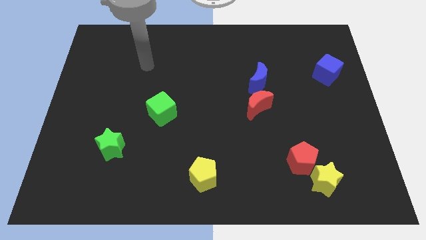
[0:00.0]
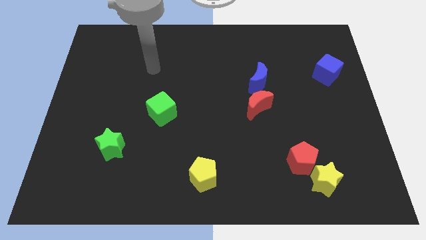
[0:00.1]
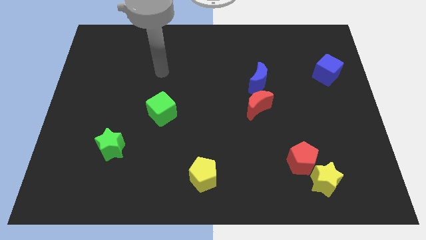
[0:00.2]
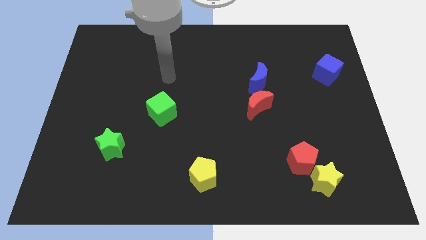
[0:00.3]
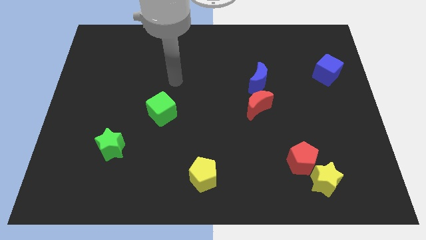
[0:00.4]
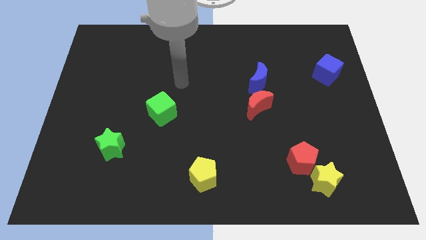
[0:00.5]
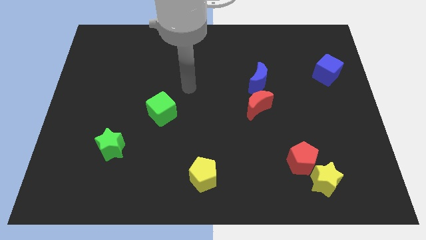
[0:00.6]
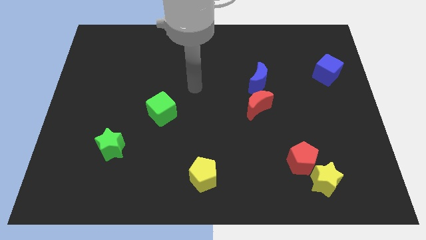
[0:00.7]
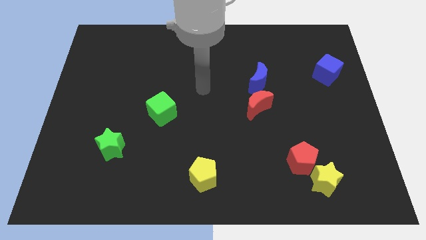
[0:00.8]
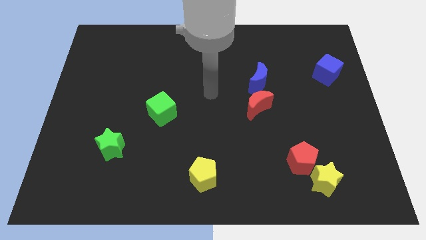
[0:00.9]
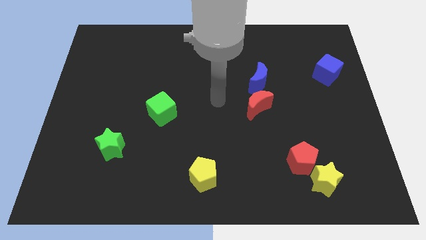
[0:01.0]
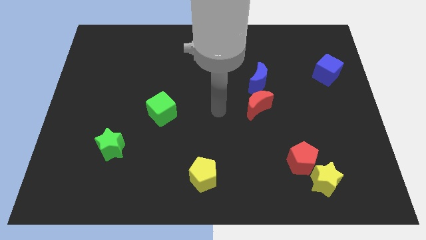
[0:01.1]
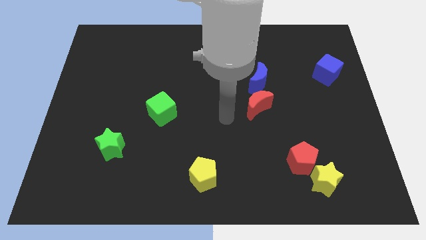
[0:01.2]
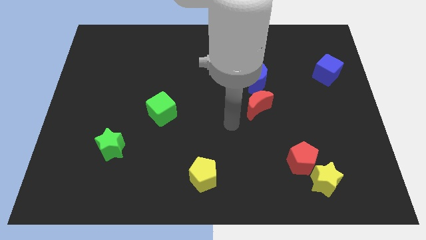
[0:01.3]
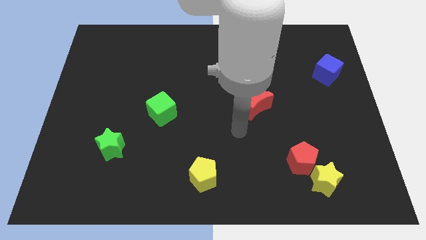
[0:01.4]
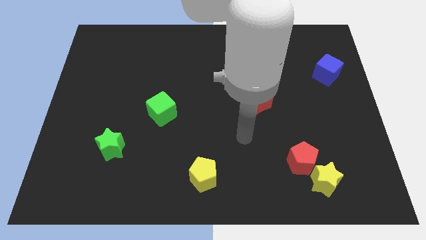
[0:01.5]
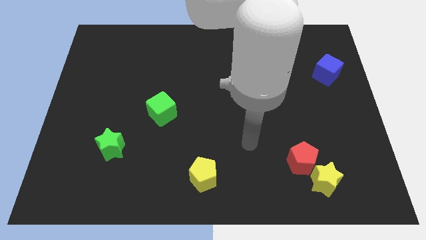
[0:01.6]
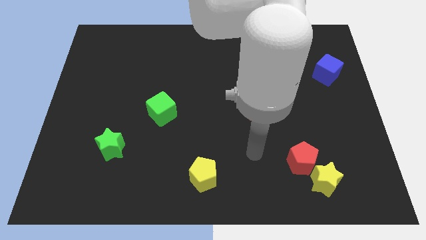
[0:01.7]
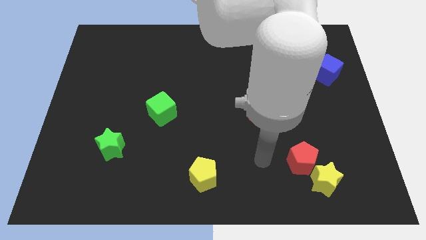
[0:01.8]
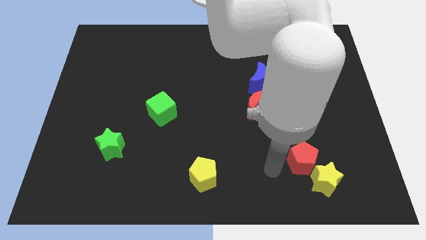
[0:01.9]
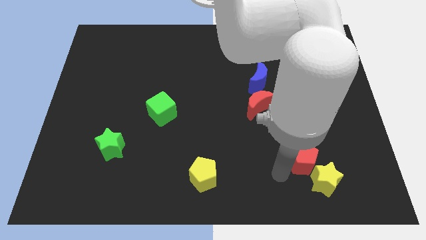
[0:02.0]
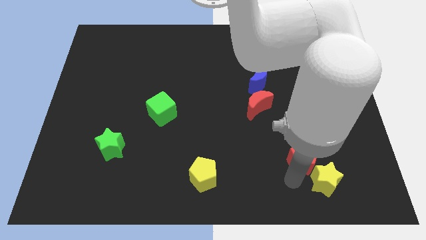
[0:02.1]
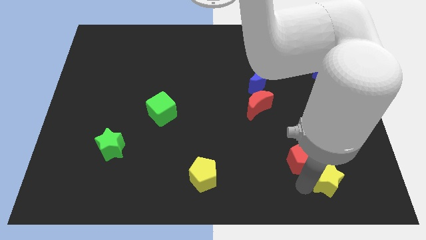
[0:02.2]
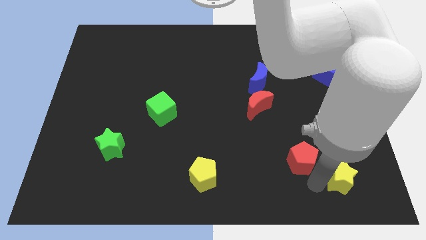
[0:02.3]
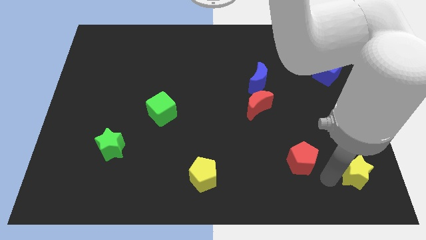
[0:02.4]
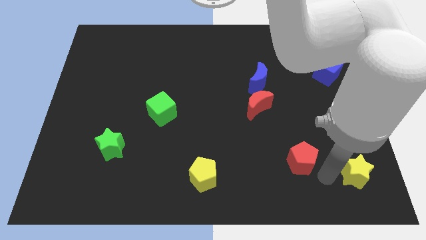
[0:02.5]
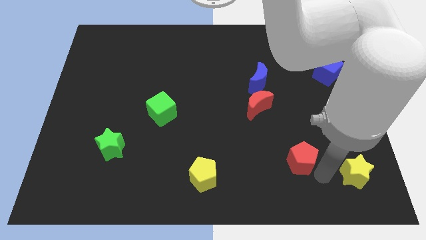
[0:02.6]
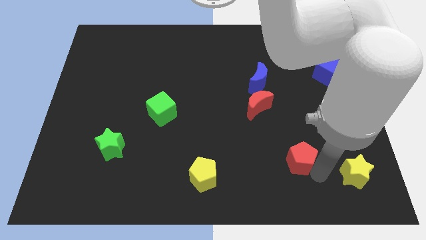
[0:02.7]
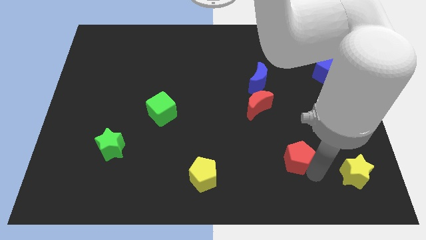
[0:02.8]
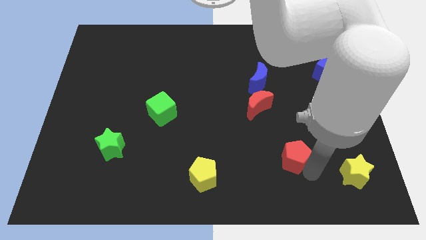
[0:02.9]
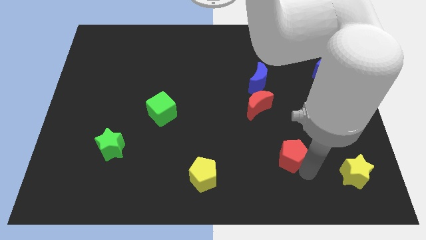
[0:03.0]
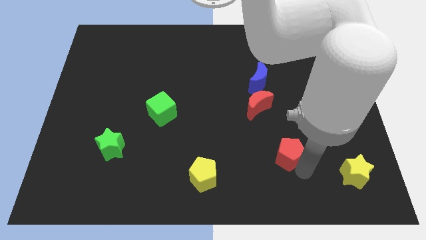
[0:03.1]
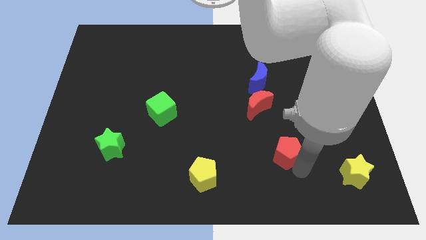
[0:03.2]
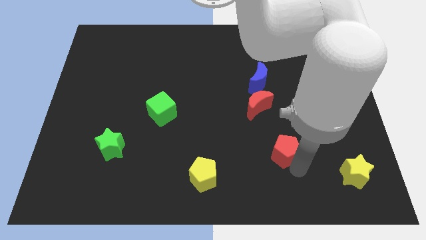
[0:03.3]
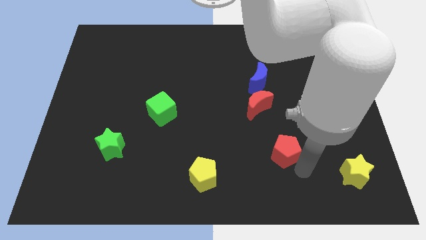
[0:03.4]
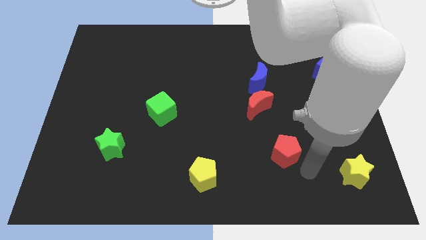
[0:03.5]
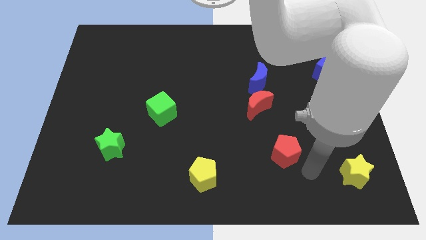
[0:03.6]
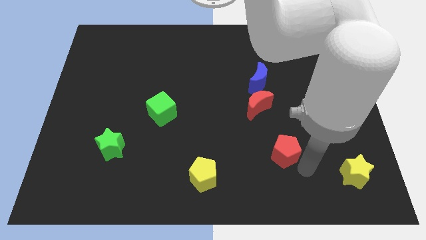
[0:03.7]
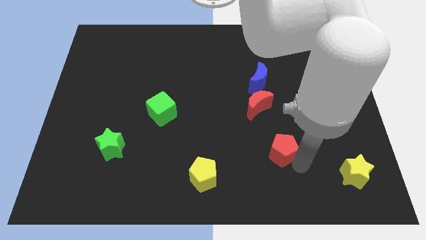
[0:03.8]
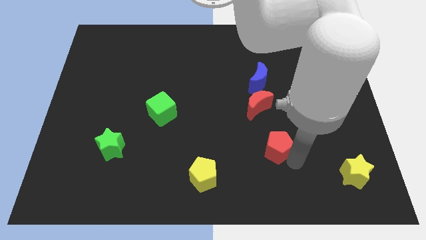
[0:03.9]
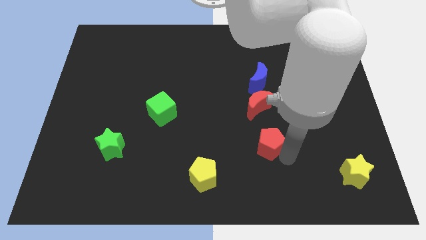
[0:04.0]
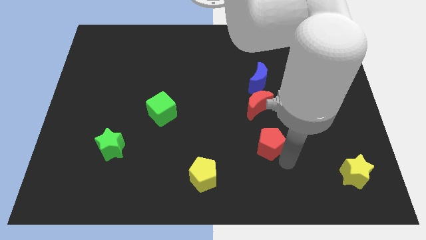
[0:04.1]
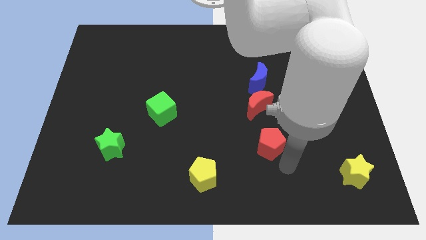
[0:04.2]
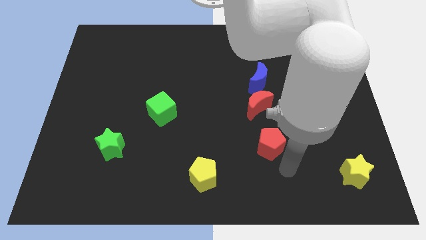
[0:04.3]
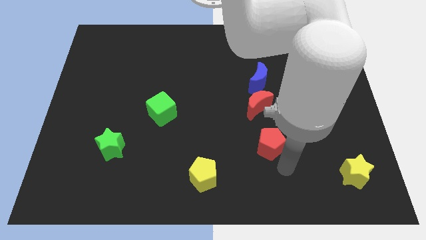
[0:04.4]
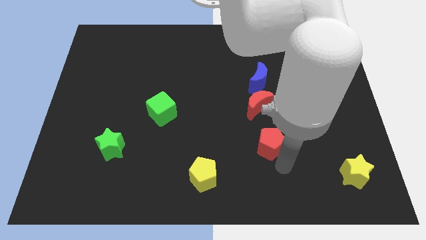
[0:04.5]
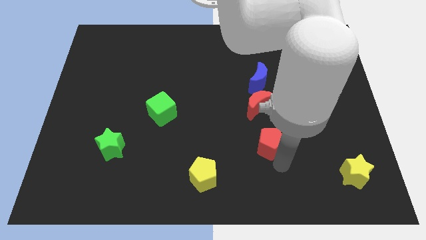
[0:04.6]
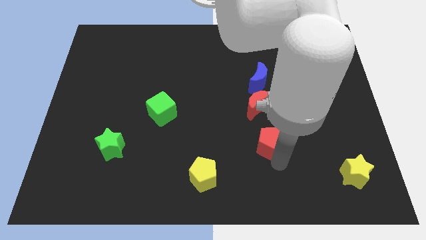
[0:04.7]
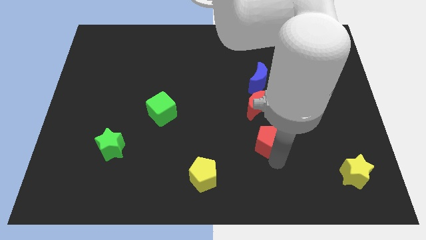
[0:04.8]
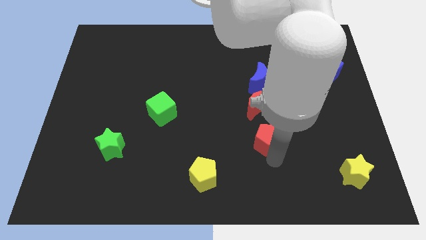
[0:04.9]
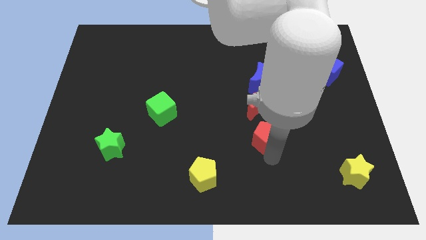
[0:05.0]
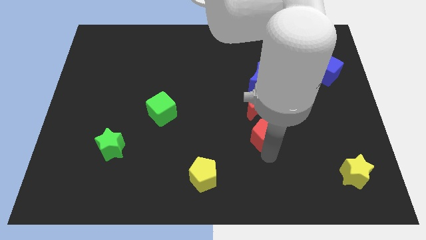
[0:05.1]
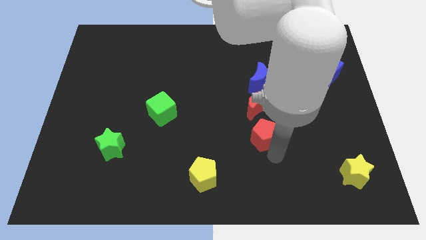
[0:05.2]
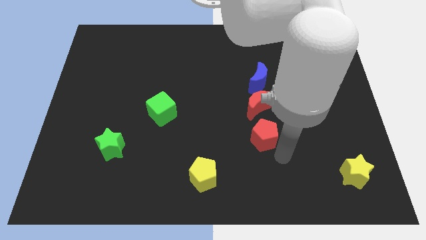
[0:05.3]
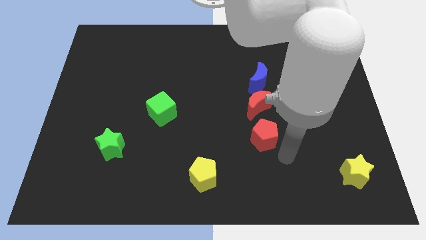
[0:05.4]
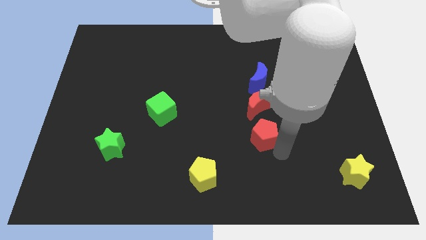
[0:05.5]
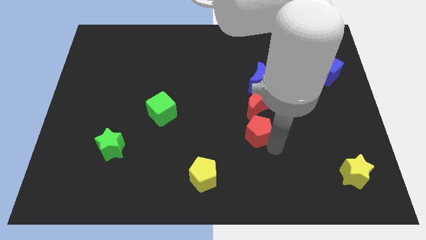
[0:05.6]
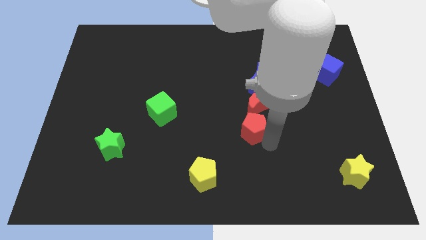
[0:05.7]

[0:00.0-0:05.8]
move the red pentagon to the center of the board

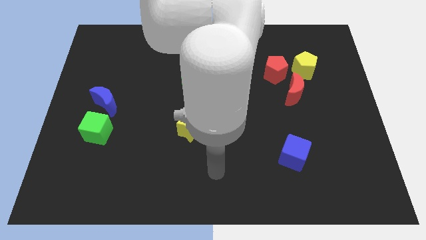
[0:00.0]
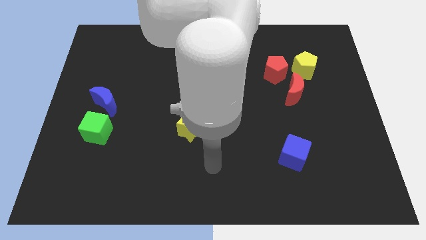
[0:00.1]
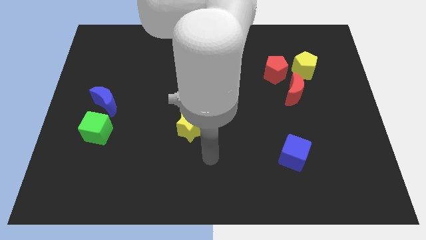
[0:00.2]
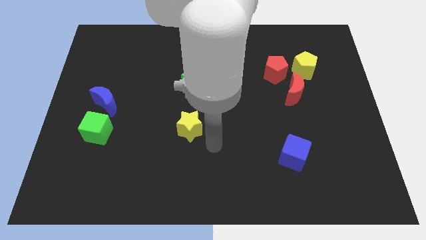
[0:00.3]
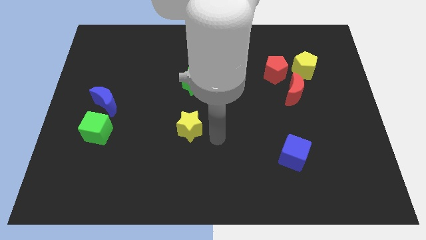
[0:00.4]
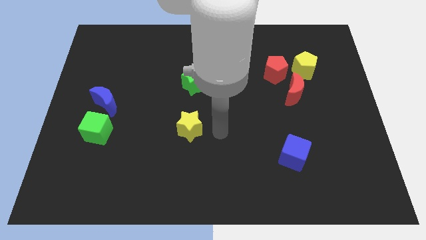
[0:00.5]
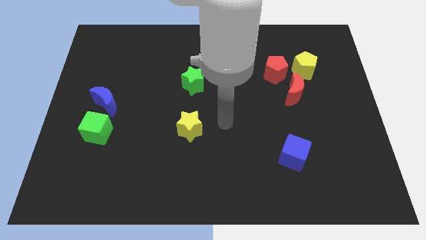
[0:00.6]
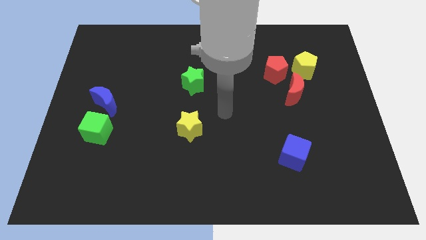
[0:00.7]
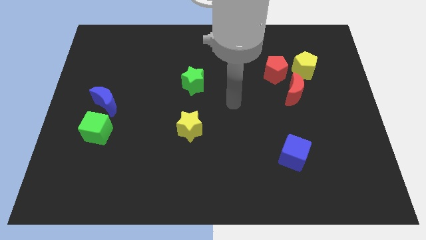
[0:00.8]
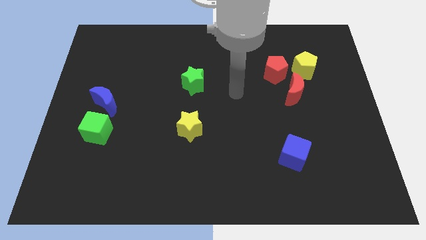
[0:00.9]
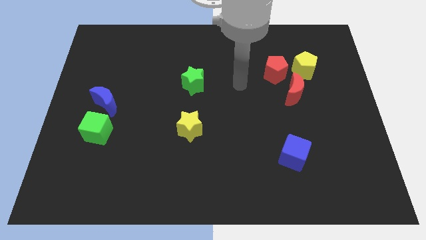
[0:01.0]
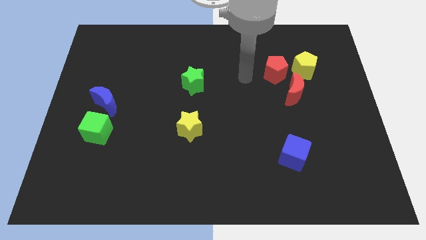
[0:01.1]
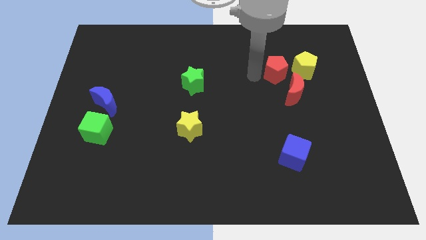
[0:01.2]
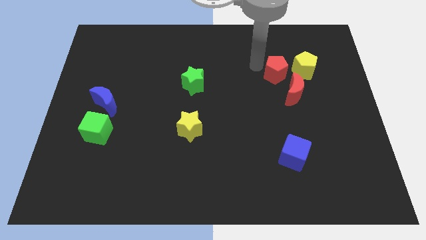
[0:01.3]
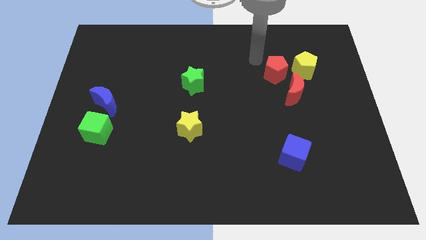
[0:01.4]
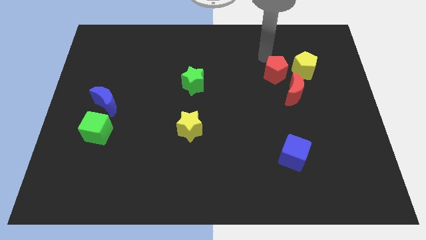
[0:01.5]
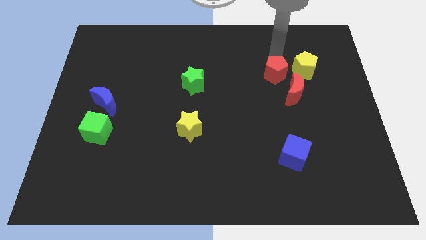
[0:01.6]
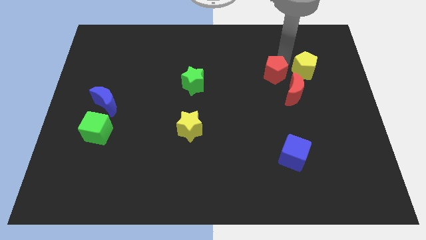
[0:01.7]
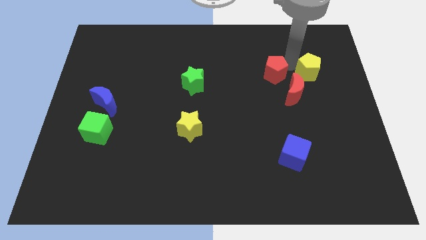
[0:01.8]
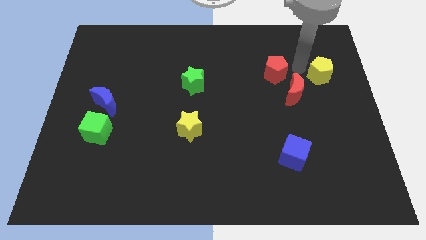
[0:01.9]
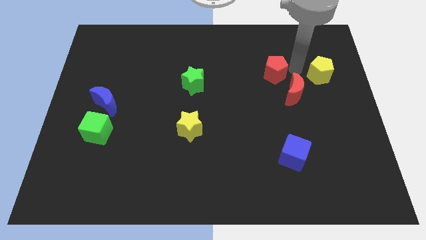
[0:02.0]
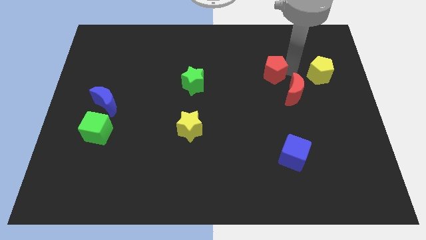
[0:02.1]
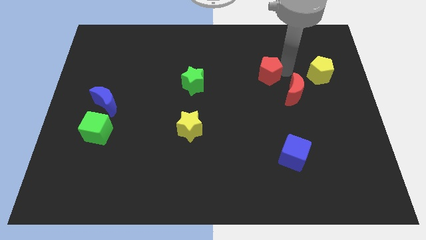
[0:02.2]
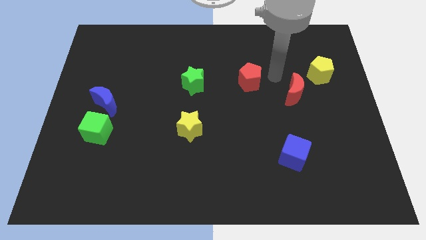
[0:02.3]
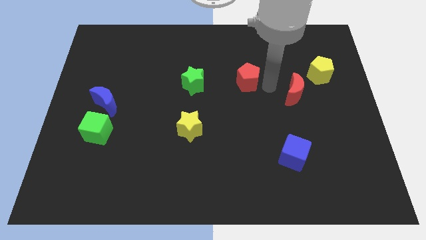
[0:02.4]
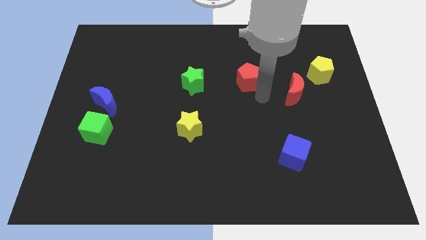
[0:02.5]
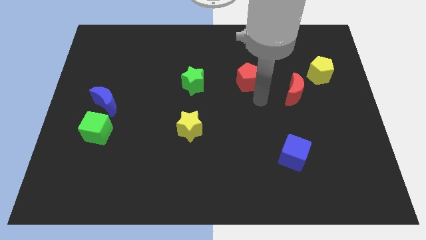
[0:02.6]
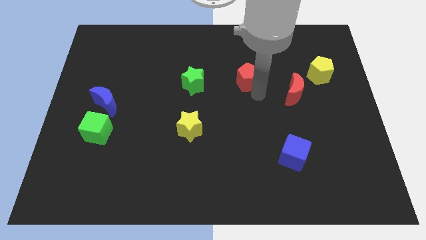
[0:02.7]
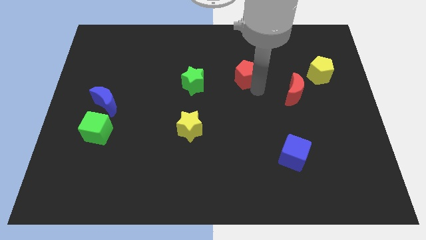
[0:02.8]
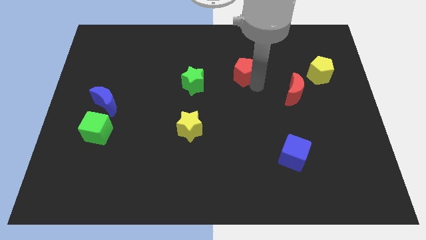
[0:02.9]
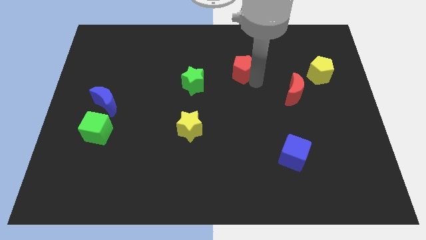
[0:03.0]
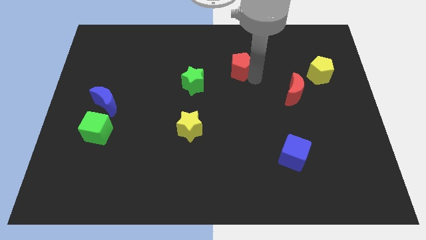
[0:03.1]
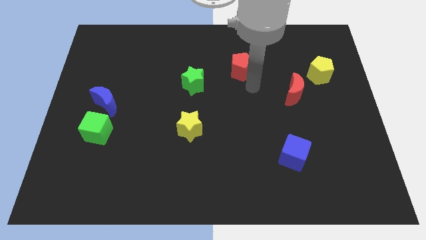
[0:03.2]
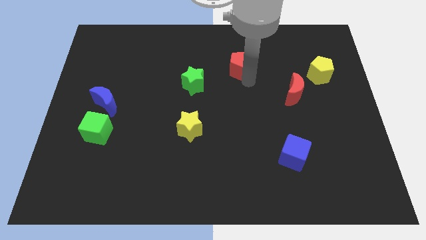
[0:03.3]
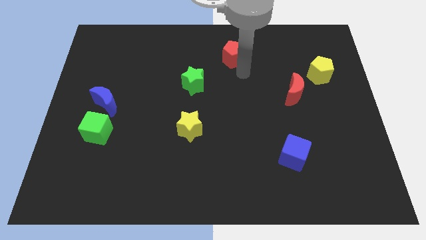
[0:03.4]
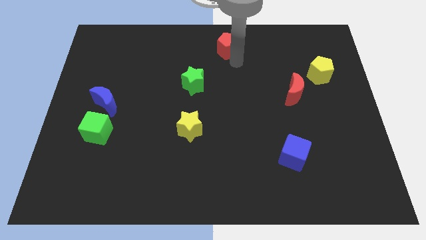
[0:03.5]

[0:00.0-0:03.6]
put the red pentagon to the top side
